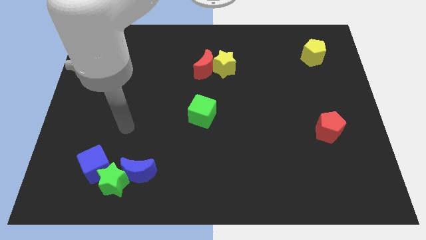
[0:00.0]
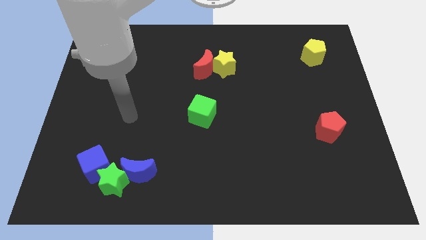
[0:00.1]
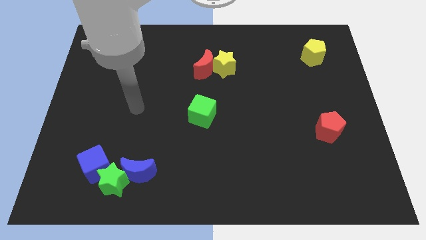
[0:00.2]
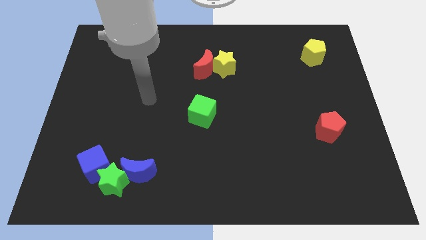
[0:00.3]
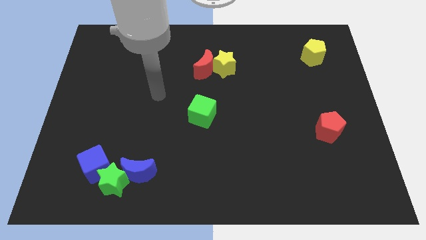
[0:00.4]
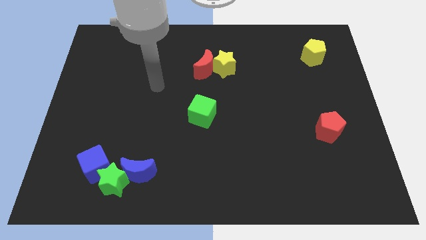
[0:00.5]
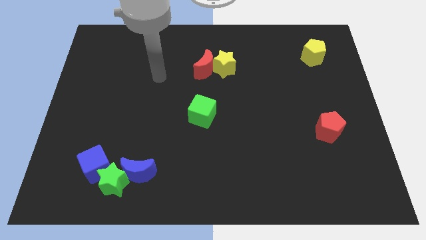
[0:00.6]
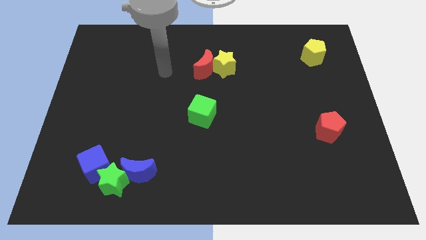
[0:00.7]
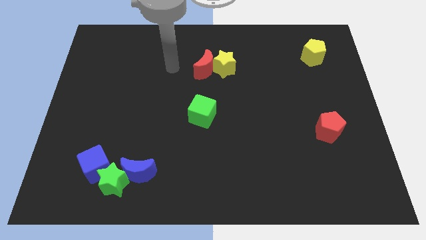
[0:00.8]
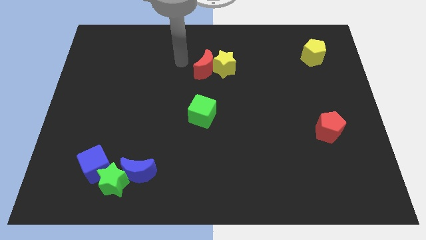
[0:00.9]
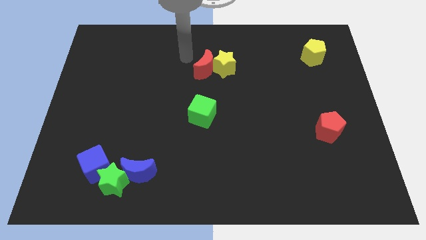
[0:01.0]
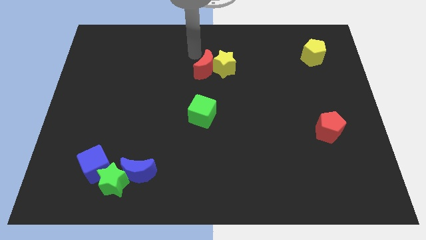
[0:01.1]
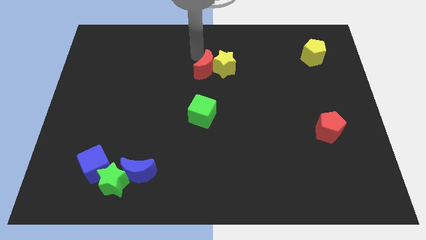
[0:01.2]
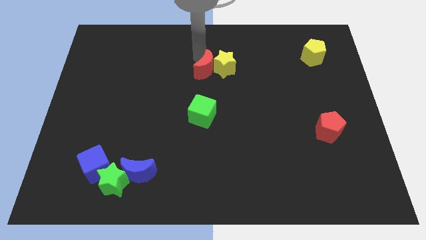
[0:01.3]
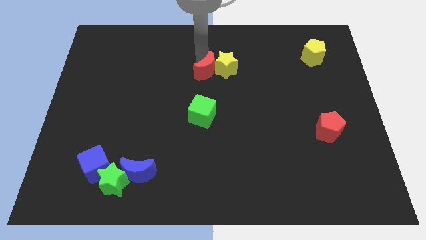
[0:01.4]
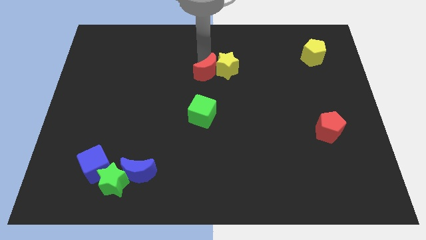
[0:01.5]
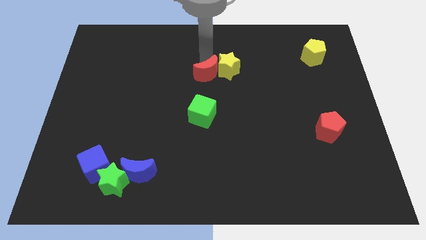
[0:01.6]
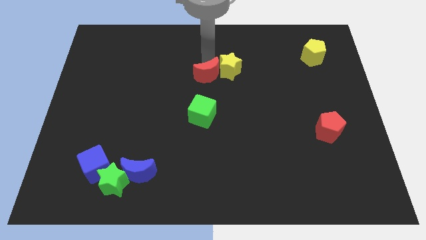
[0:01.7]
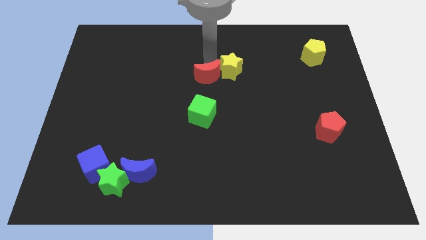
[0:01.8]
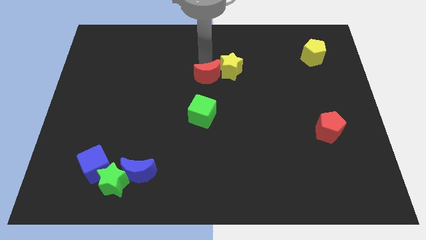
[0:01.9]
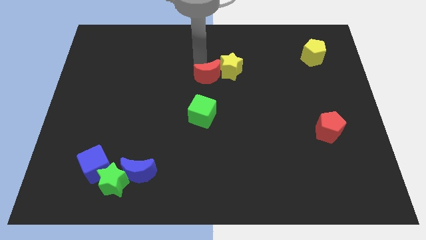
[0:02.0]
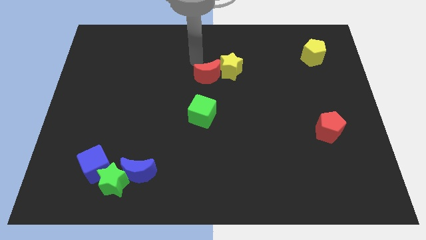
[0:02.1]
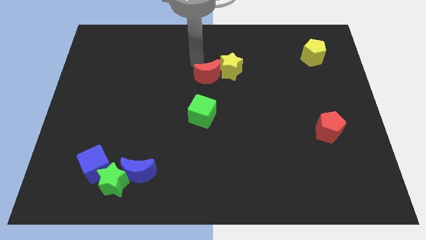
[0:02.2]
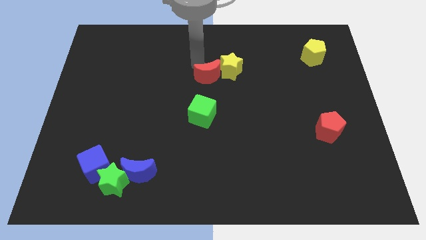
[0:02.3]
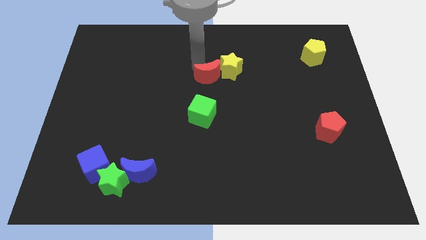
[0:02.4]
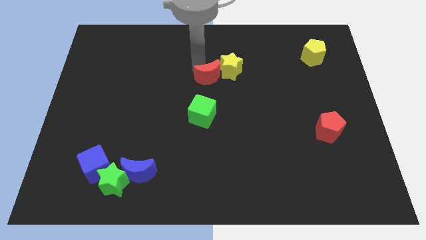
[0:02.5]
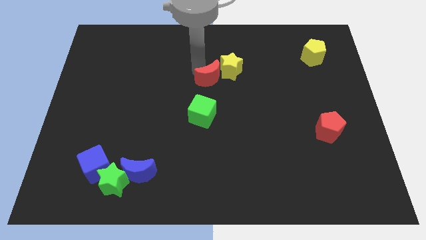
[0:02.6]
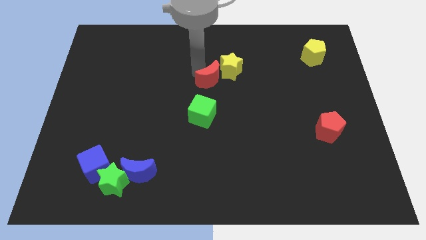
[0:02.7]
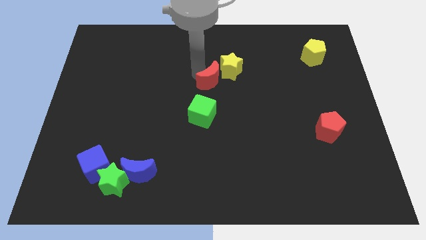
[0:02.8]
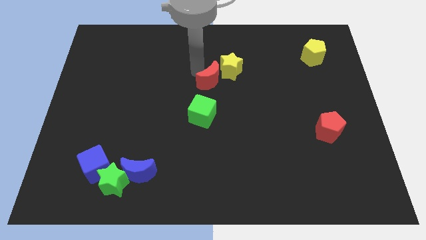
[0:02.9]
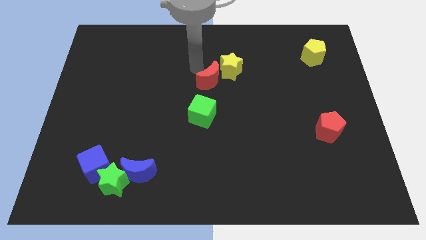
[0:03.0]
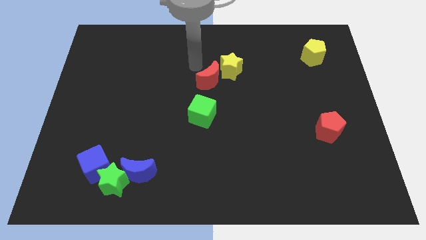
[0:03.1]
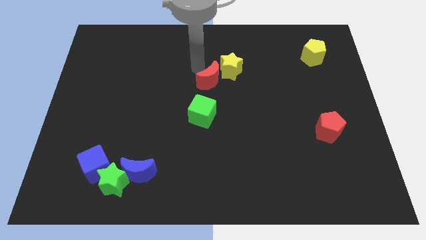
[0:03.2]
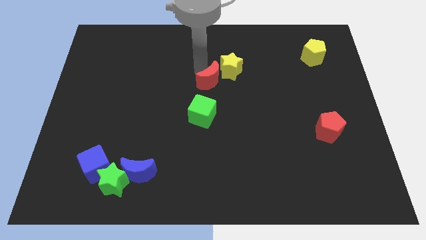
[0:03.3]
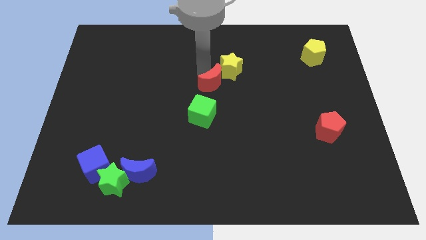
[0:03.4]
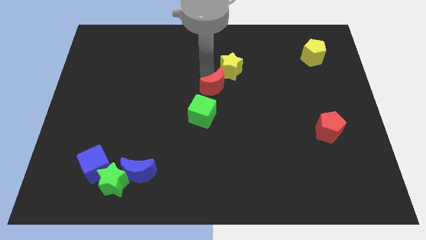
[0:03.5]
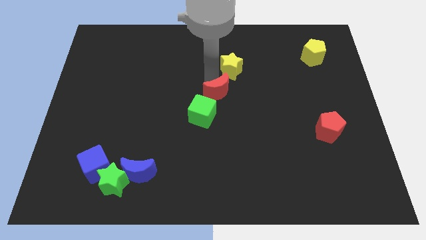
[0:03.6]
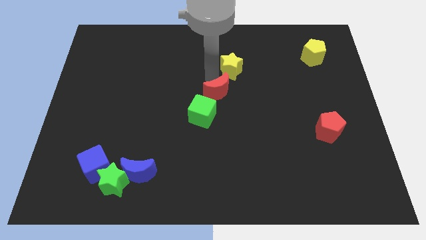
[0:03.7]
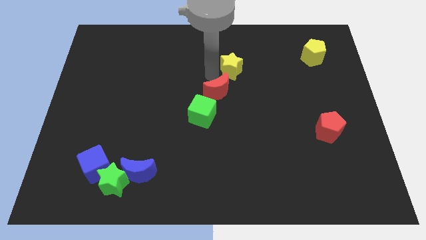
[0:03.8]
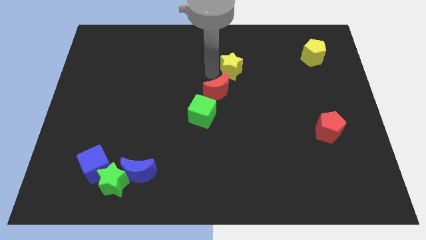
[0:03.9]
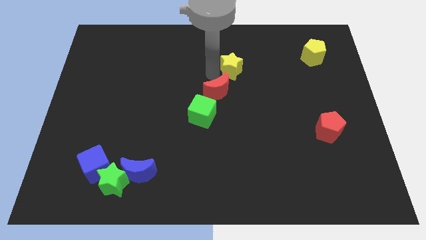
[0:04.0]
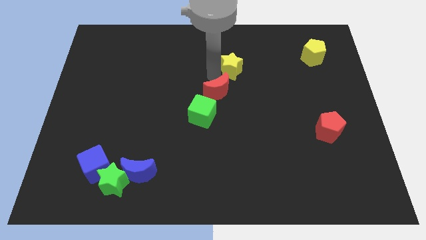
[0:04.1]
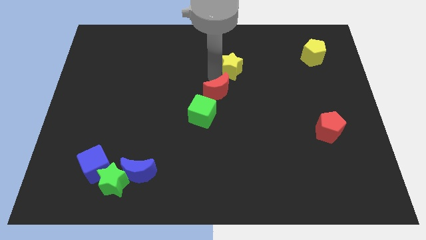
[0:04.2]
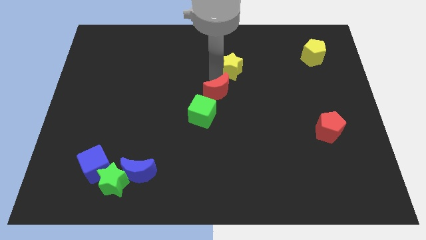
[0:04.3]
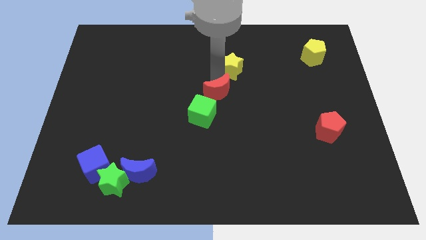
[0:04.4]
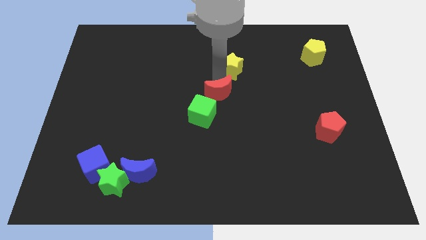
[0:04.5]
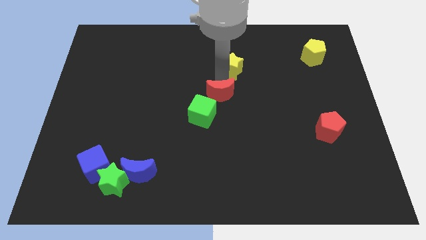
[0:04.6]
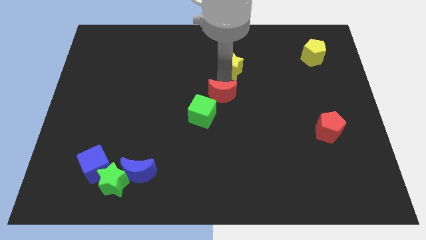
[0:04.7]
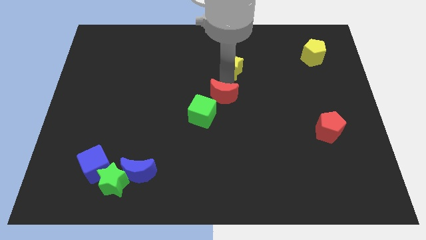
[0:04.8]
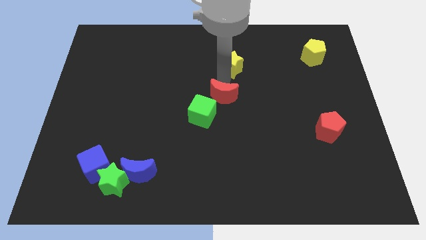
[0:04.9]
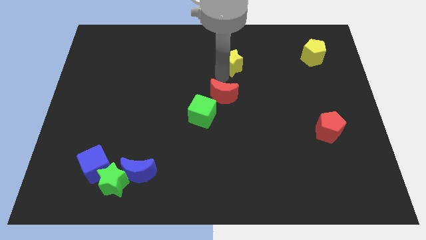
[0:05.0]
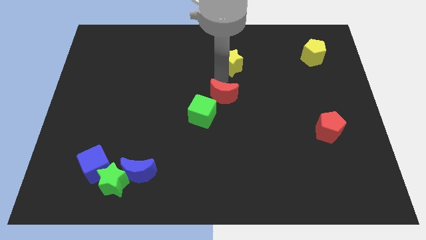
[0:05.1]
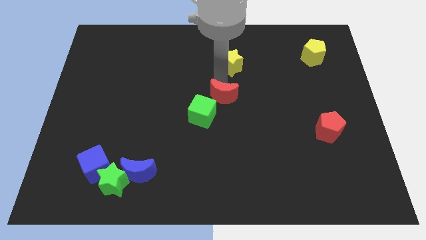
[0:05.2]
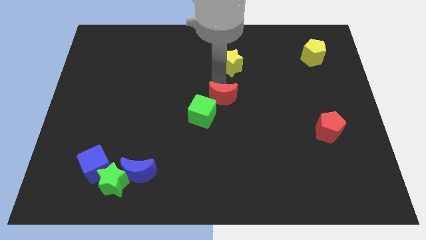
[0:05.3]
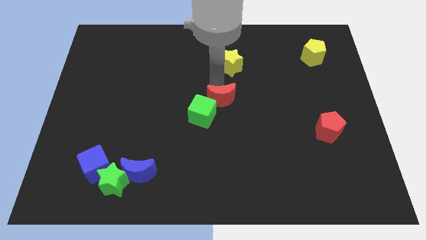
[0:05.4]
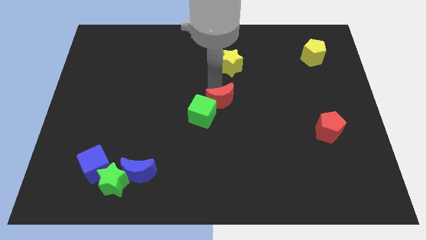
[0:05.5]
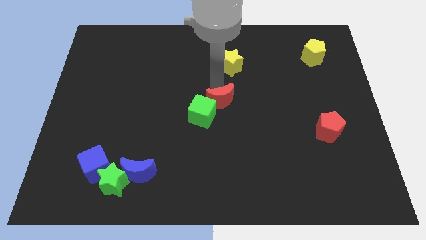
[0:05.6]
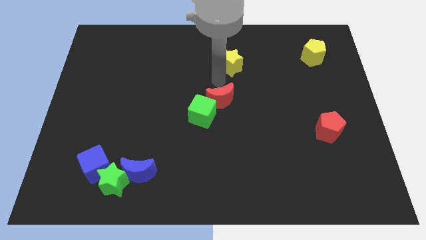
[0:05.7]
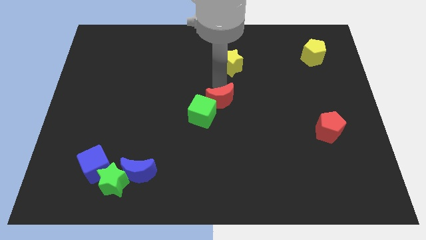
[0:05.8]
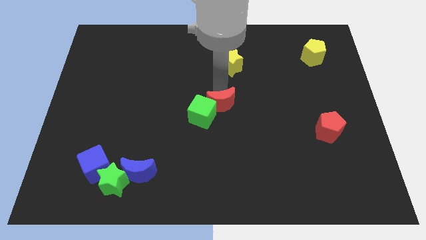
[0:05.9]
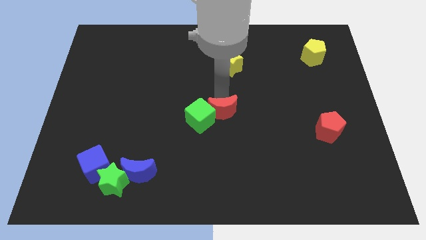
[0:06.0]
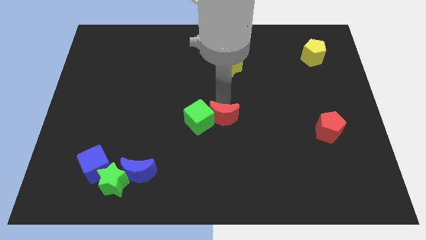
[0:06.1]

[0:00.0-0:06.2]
slide the red moon to the bottom right side of the green cube
